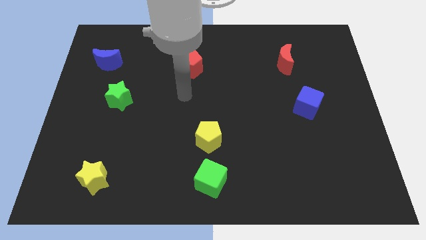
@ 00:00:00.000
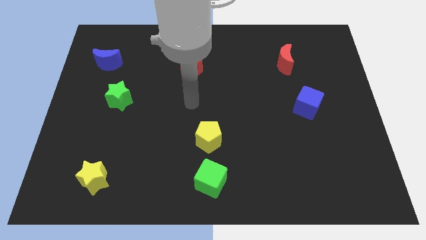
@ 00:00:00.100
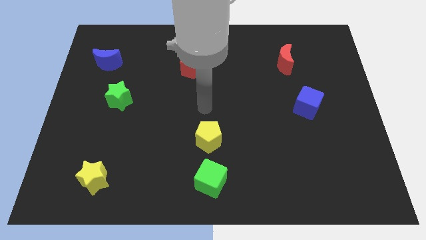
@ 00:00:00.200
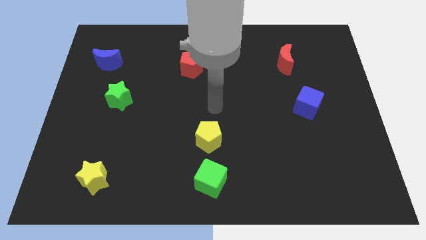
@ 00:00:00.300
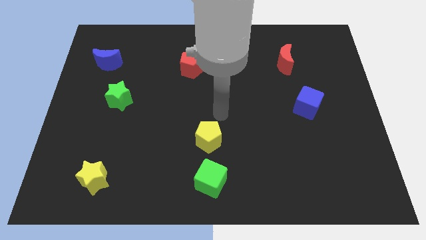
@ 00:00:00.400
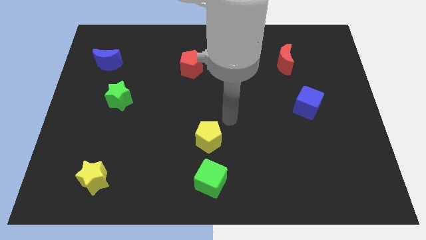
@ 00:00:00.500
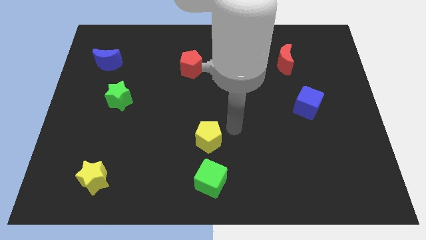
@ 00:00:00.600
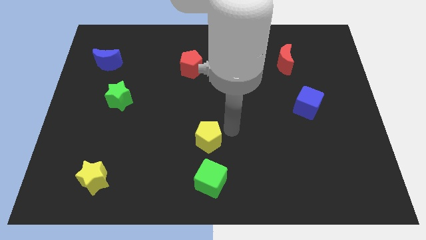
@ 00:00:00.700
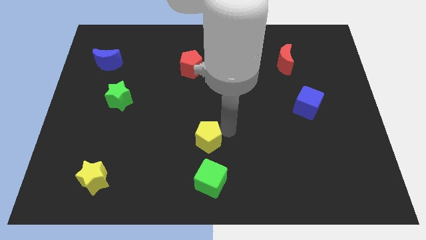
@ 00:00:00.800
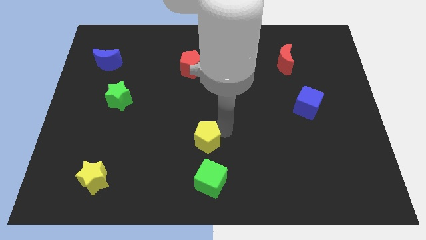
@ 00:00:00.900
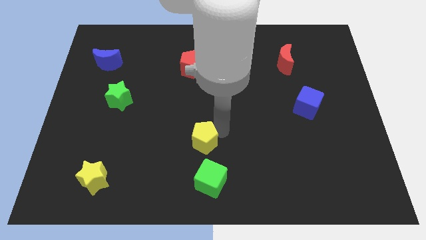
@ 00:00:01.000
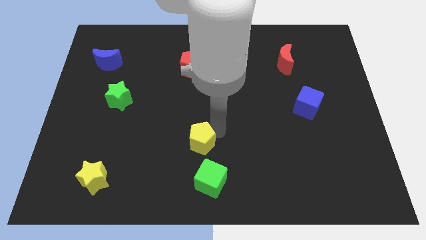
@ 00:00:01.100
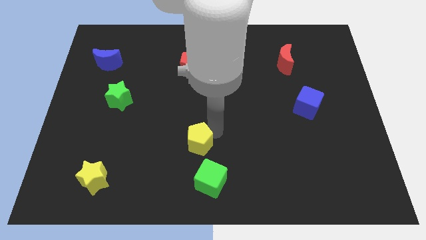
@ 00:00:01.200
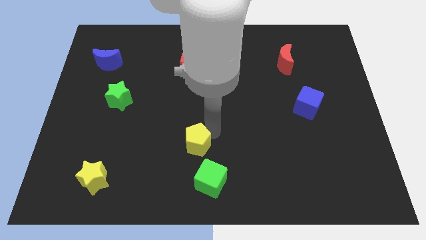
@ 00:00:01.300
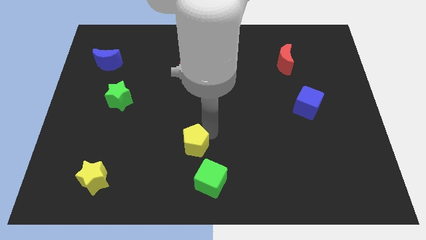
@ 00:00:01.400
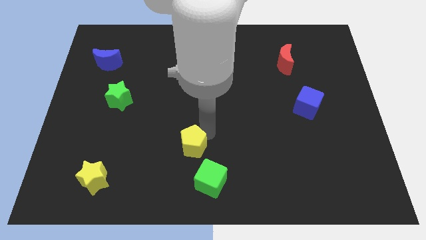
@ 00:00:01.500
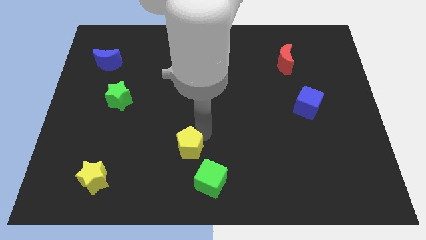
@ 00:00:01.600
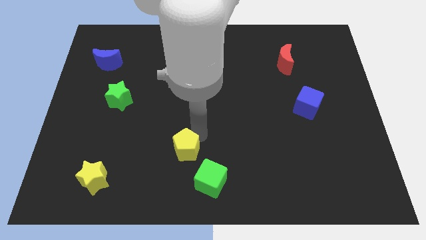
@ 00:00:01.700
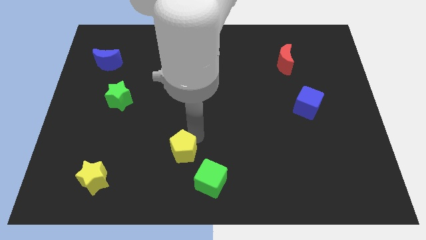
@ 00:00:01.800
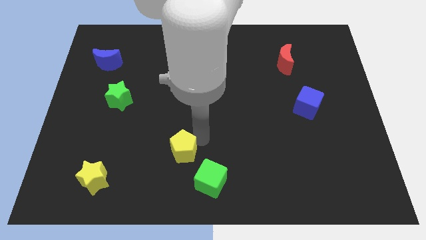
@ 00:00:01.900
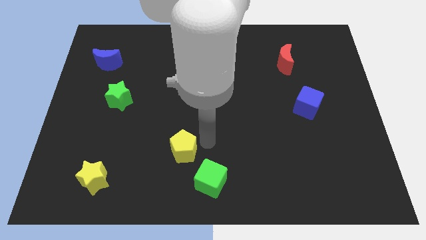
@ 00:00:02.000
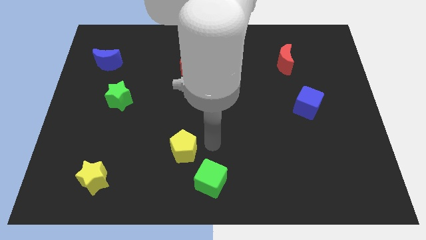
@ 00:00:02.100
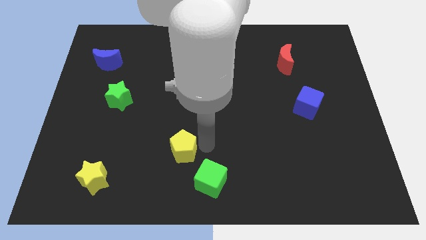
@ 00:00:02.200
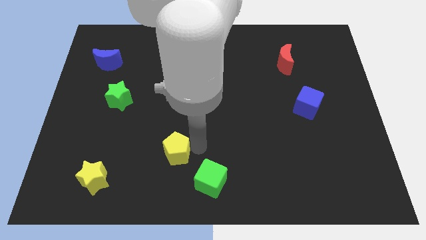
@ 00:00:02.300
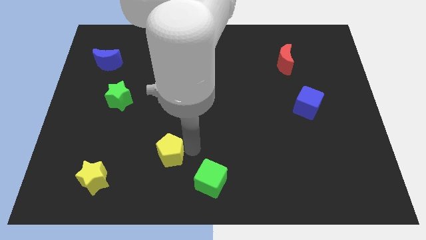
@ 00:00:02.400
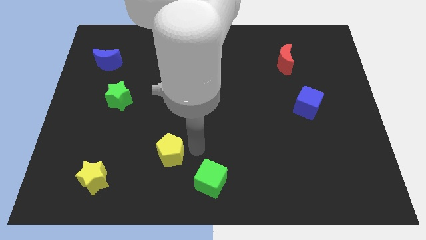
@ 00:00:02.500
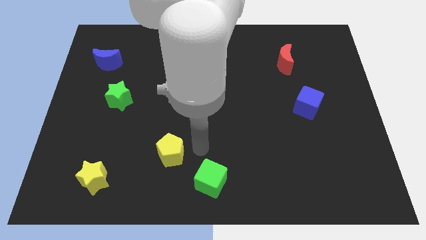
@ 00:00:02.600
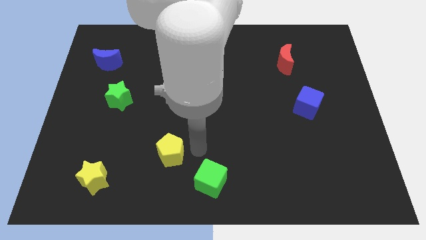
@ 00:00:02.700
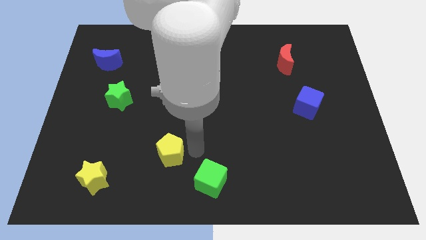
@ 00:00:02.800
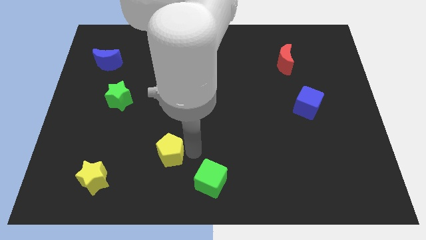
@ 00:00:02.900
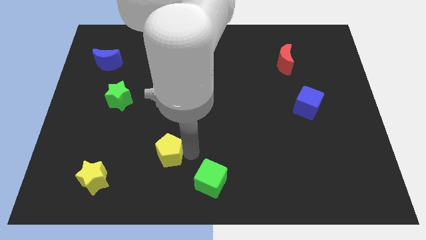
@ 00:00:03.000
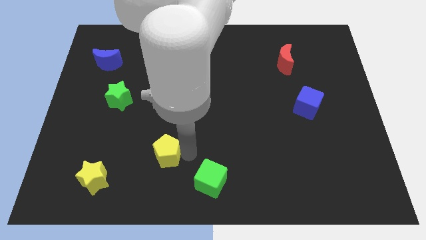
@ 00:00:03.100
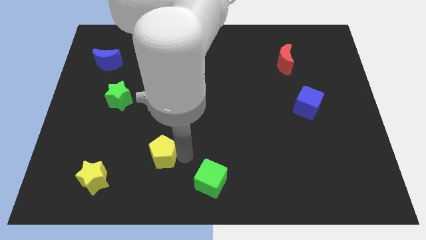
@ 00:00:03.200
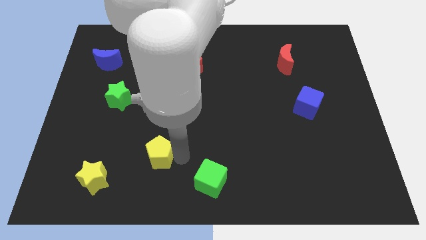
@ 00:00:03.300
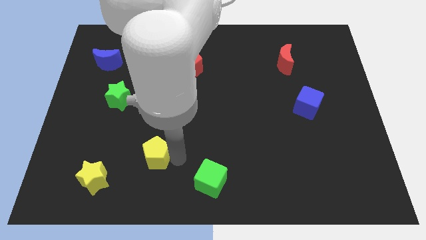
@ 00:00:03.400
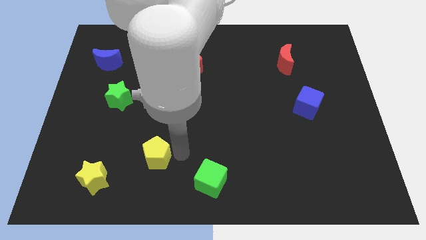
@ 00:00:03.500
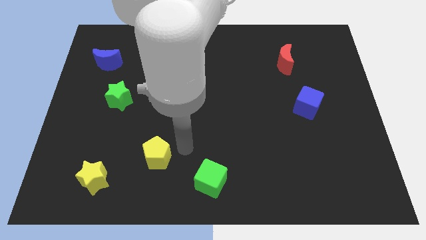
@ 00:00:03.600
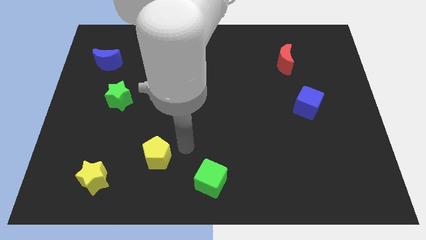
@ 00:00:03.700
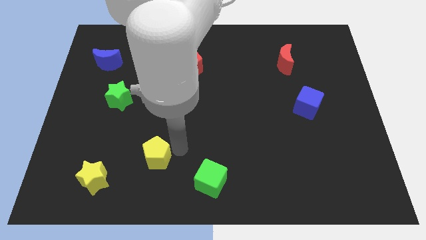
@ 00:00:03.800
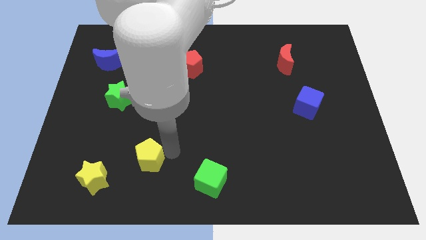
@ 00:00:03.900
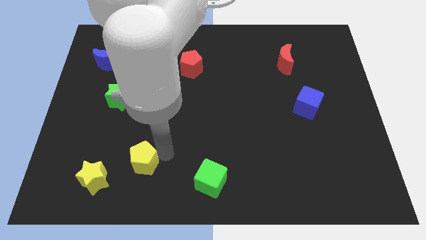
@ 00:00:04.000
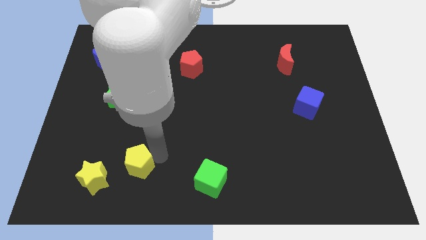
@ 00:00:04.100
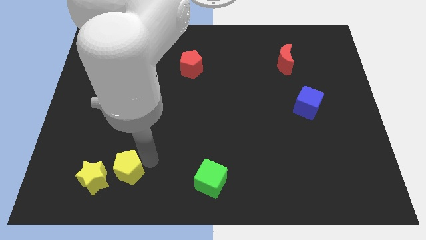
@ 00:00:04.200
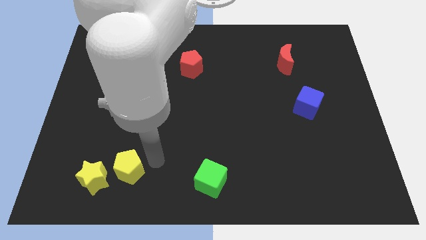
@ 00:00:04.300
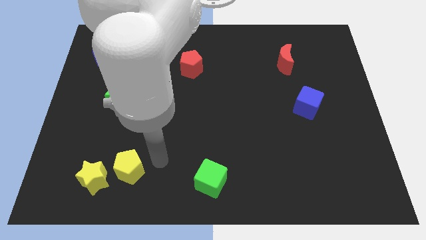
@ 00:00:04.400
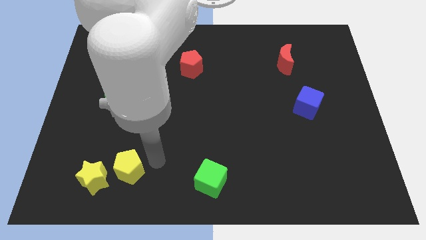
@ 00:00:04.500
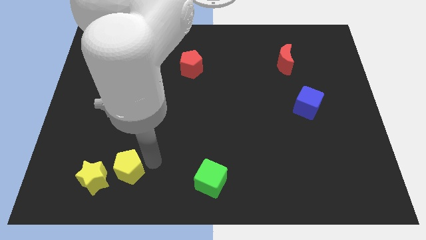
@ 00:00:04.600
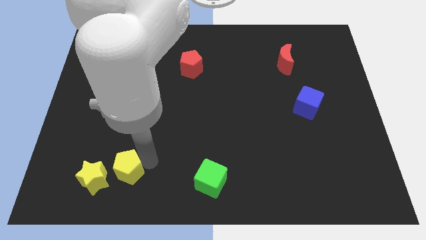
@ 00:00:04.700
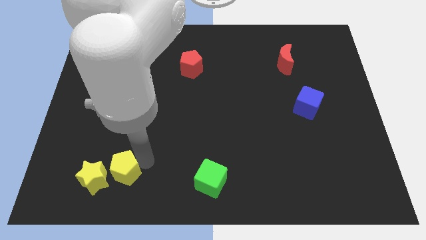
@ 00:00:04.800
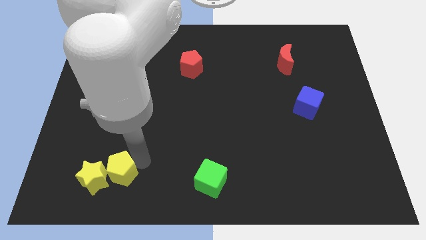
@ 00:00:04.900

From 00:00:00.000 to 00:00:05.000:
push the yellow pentagon next to the yellow star

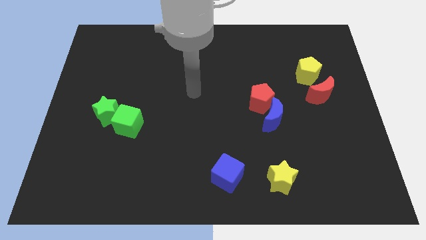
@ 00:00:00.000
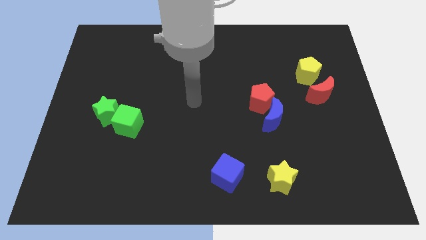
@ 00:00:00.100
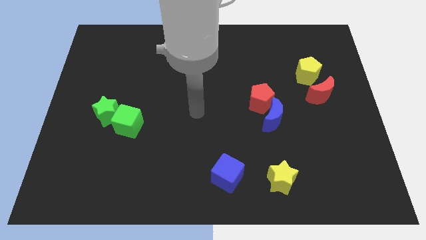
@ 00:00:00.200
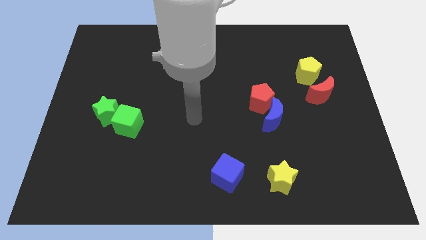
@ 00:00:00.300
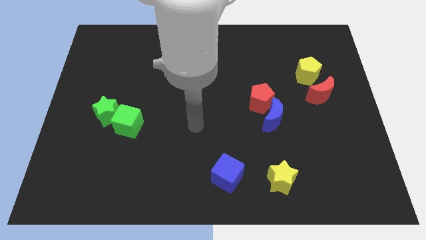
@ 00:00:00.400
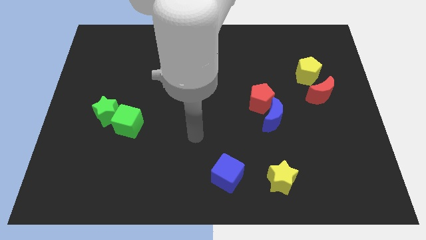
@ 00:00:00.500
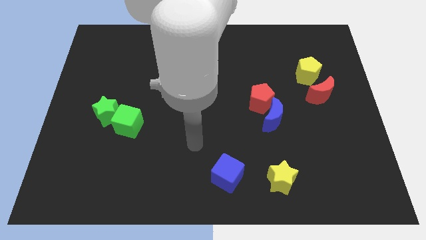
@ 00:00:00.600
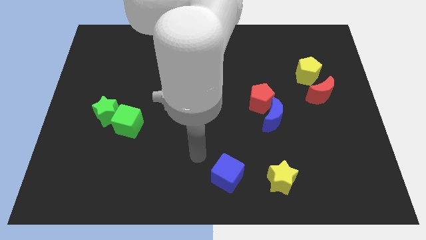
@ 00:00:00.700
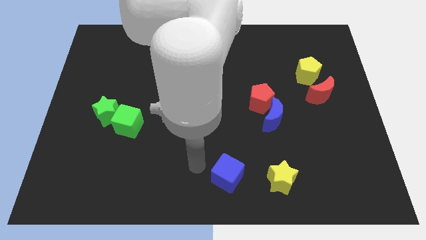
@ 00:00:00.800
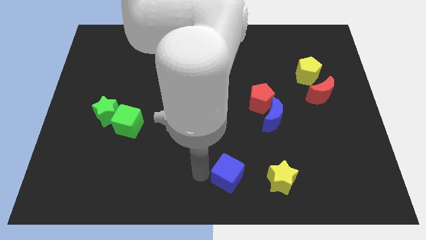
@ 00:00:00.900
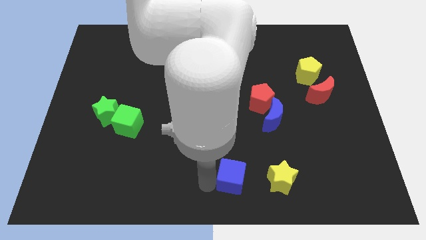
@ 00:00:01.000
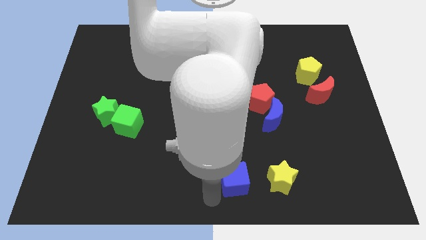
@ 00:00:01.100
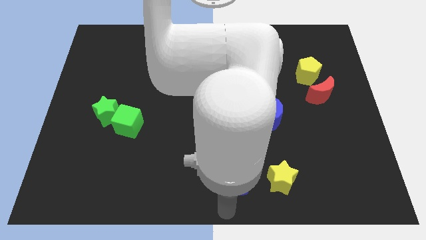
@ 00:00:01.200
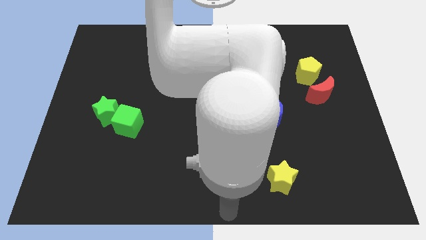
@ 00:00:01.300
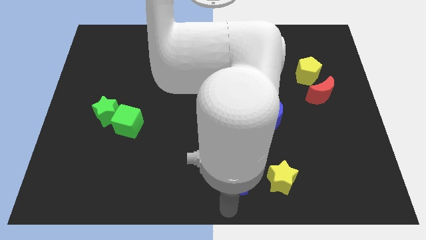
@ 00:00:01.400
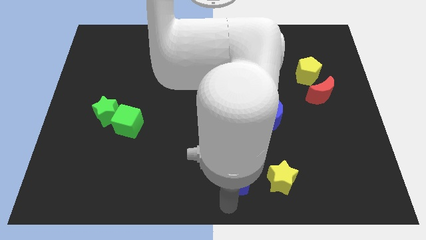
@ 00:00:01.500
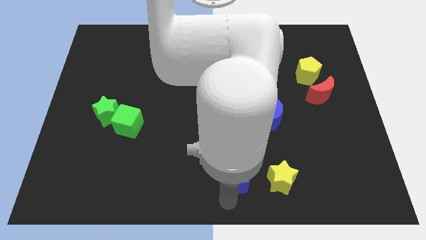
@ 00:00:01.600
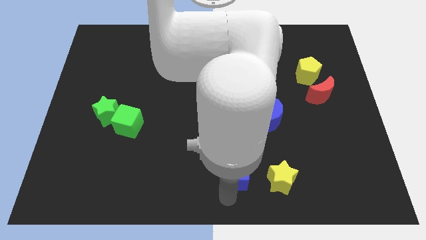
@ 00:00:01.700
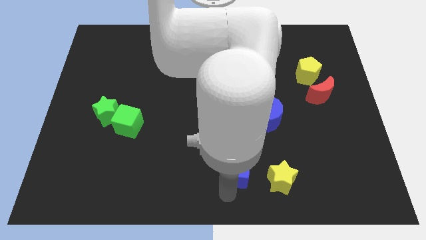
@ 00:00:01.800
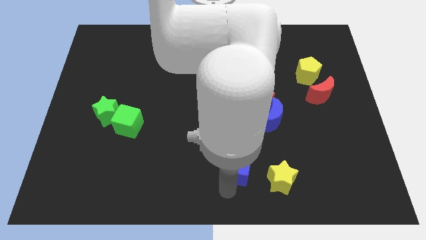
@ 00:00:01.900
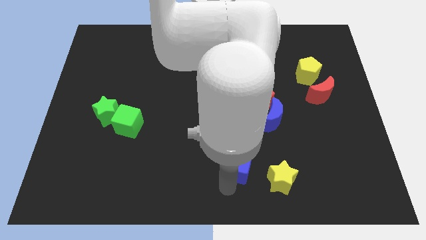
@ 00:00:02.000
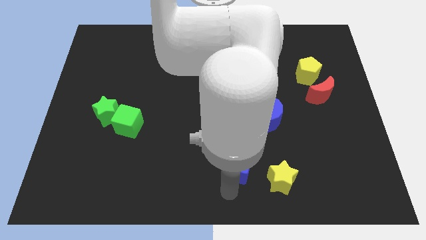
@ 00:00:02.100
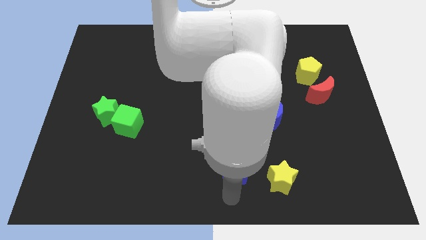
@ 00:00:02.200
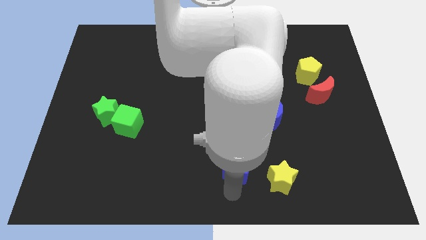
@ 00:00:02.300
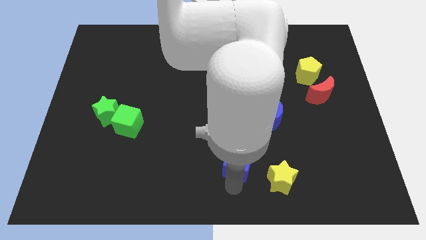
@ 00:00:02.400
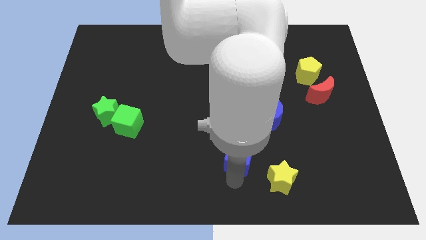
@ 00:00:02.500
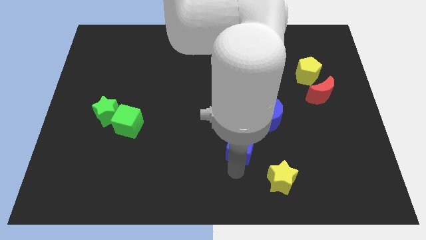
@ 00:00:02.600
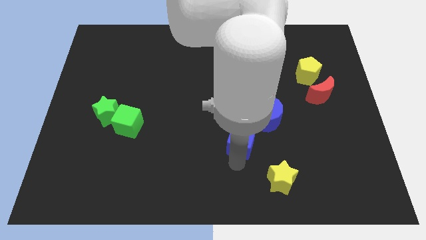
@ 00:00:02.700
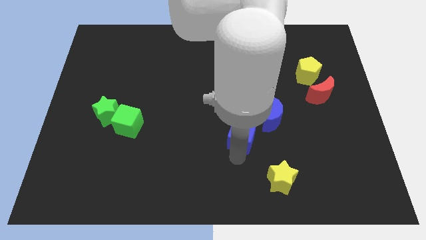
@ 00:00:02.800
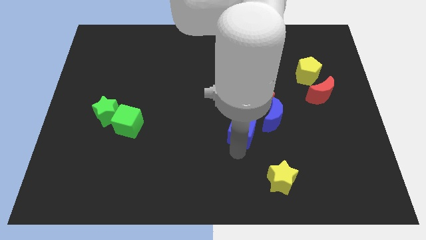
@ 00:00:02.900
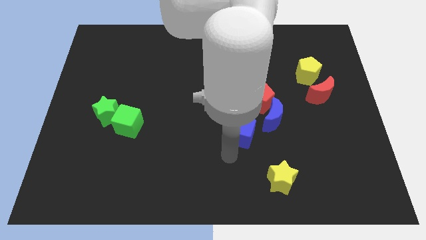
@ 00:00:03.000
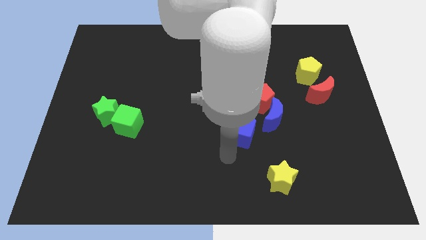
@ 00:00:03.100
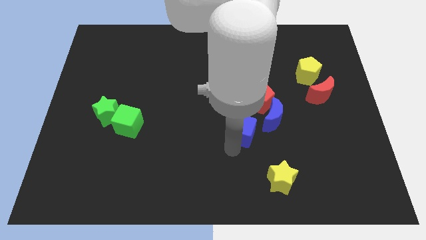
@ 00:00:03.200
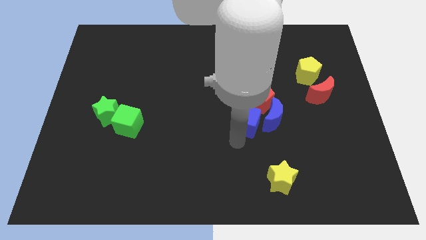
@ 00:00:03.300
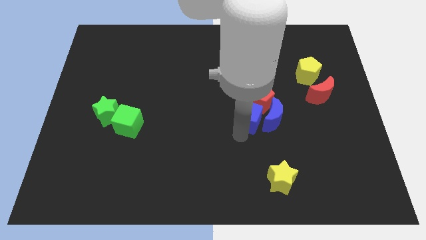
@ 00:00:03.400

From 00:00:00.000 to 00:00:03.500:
move the blue cube next to the red pentagon
